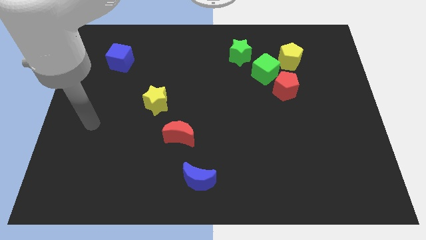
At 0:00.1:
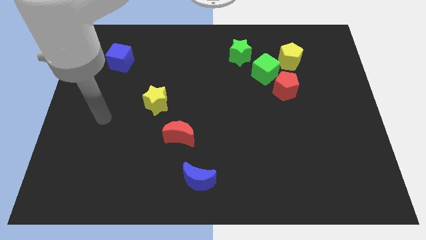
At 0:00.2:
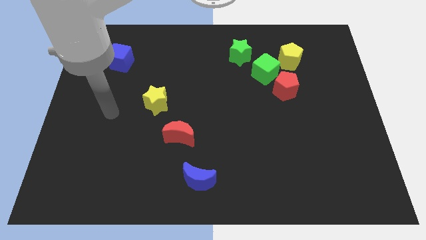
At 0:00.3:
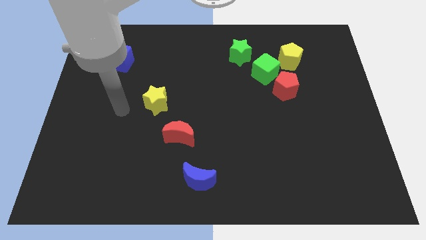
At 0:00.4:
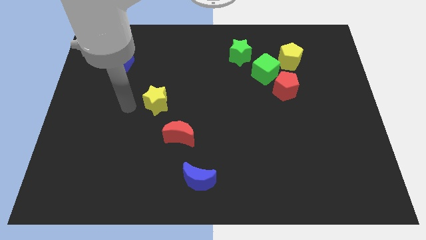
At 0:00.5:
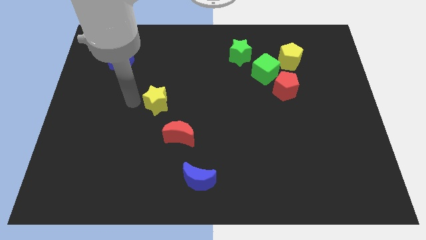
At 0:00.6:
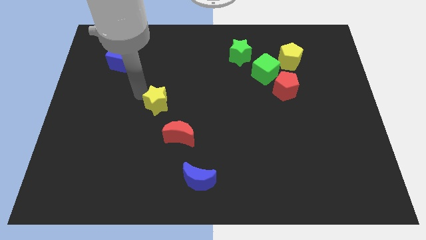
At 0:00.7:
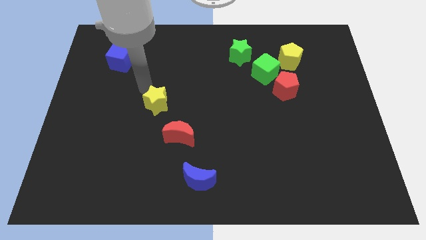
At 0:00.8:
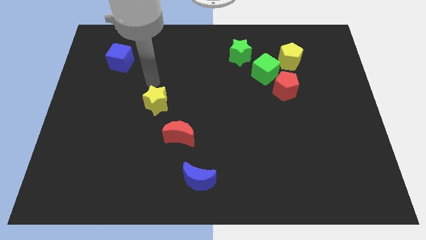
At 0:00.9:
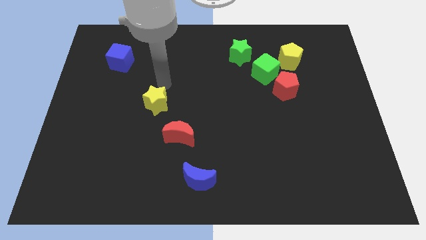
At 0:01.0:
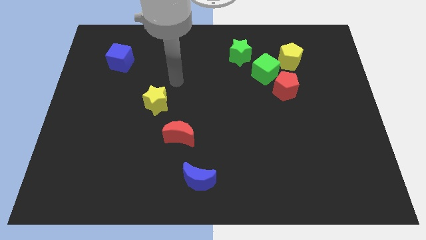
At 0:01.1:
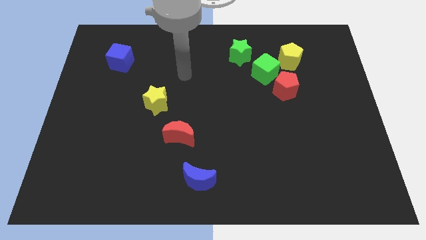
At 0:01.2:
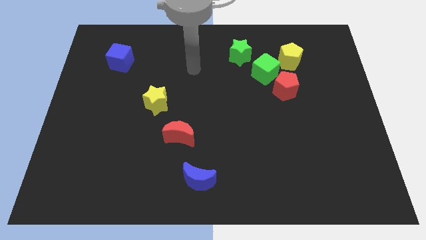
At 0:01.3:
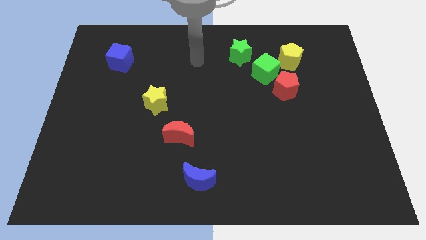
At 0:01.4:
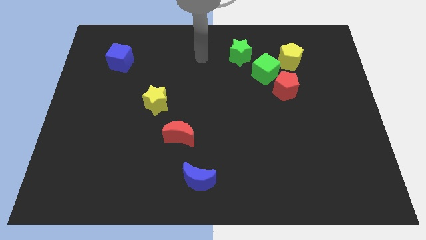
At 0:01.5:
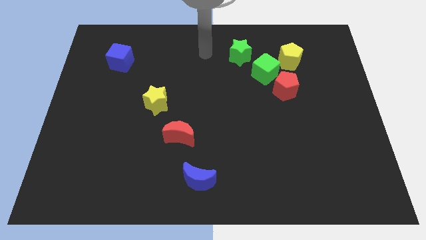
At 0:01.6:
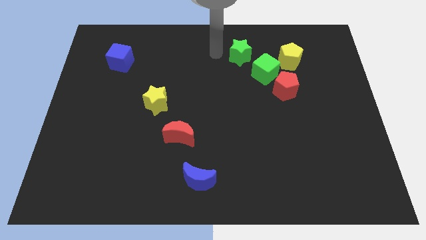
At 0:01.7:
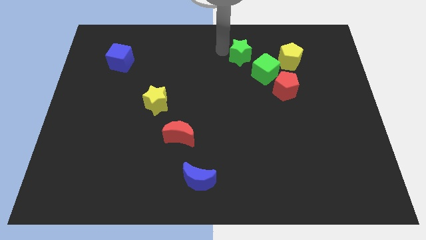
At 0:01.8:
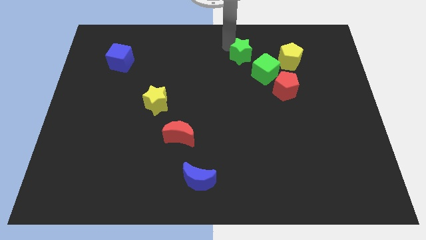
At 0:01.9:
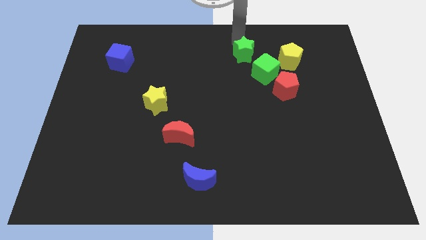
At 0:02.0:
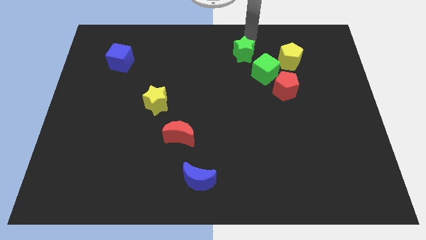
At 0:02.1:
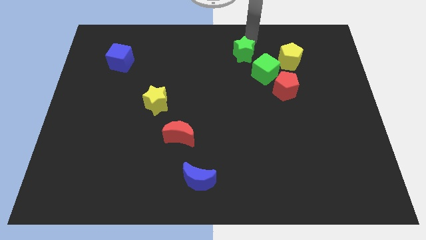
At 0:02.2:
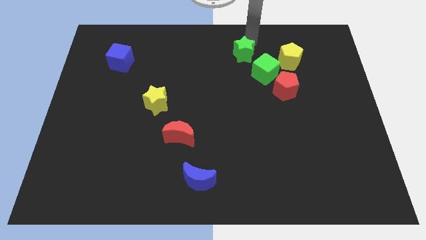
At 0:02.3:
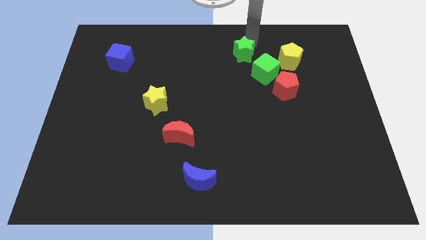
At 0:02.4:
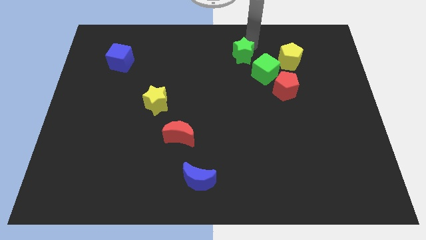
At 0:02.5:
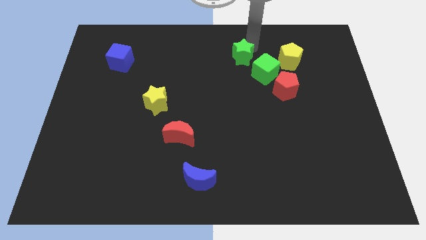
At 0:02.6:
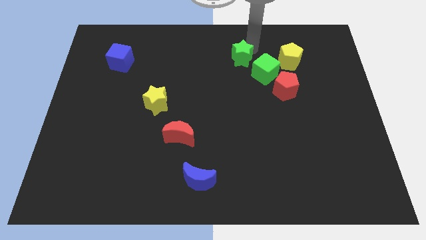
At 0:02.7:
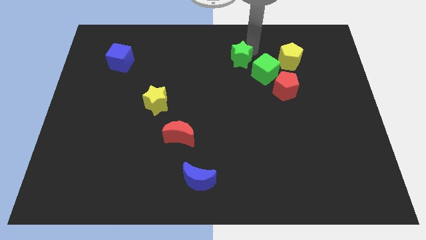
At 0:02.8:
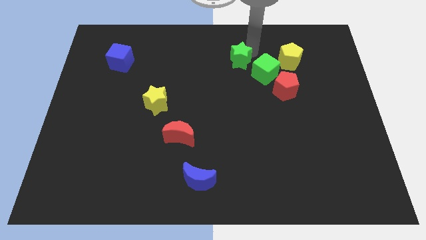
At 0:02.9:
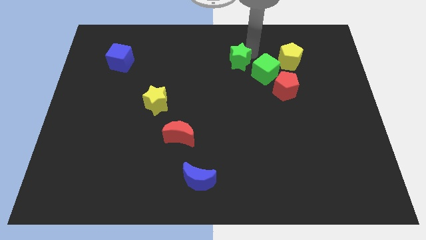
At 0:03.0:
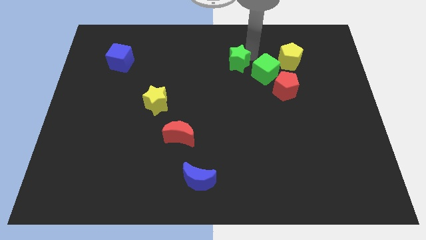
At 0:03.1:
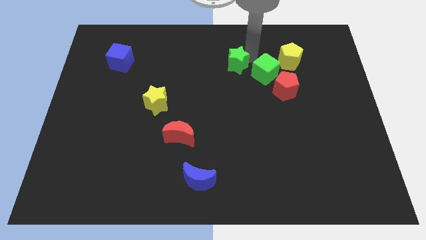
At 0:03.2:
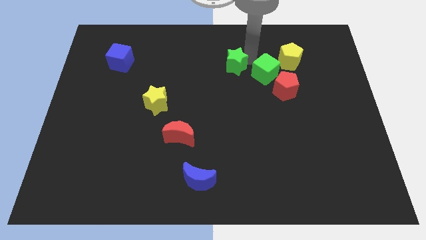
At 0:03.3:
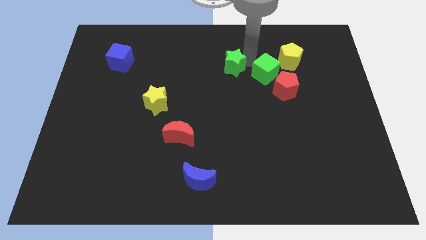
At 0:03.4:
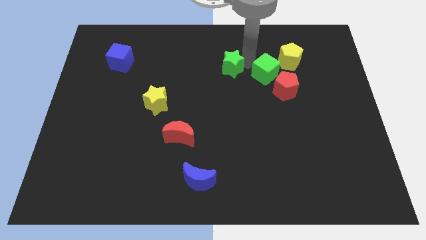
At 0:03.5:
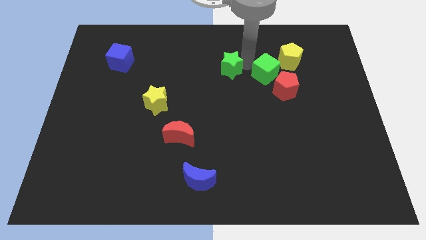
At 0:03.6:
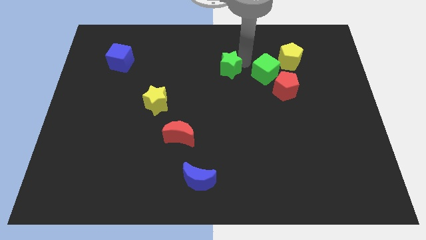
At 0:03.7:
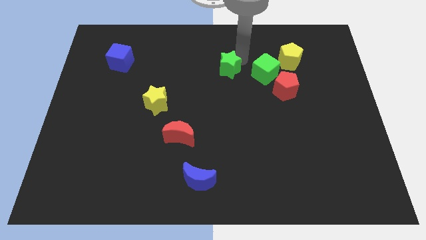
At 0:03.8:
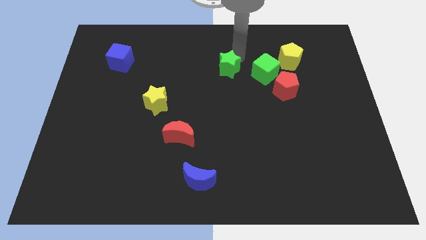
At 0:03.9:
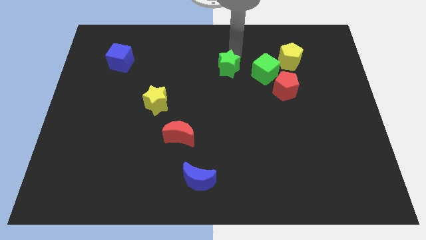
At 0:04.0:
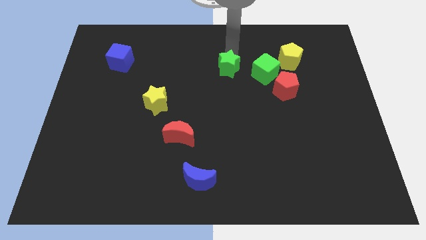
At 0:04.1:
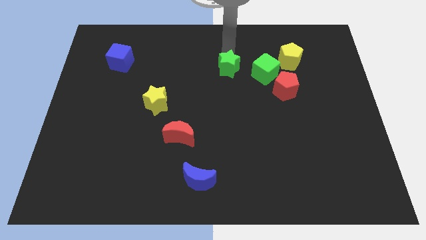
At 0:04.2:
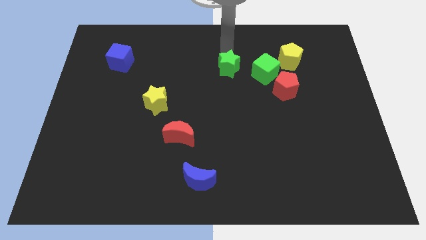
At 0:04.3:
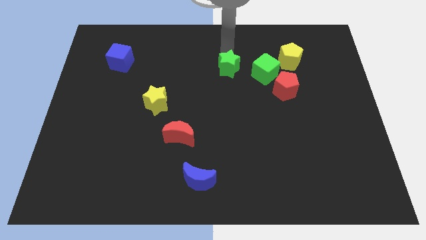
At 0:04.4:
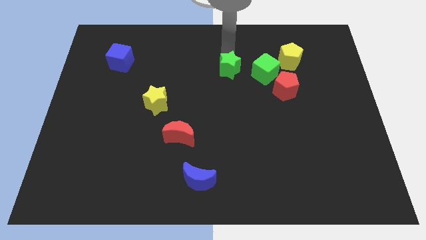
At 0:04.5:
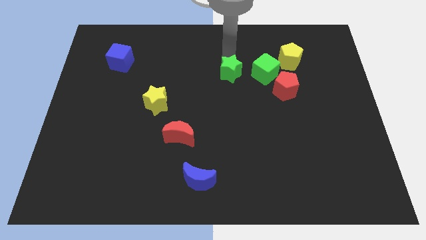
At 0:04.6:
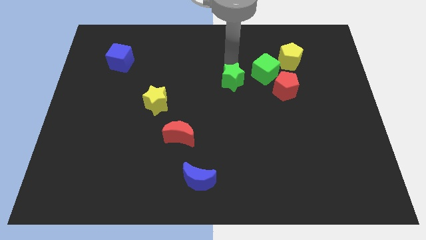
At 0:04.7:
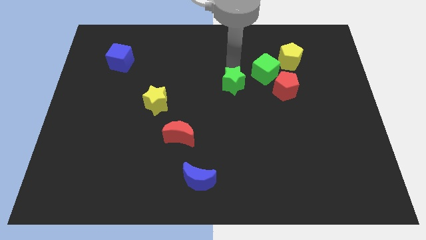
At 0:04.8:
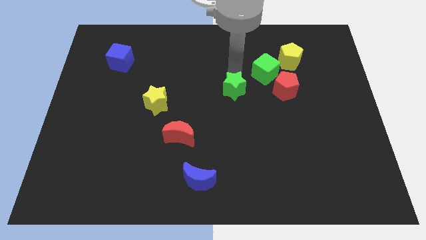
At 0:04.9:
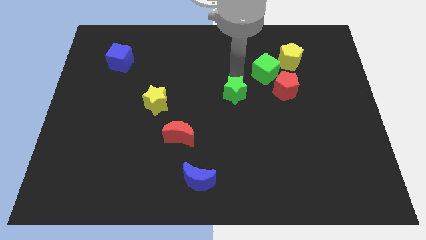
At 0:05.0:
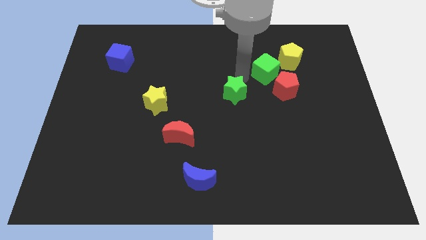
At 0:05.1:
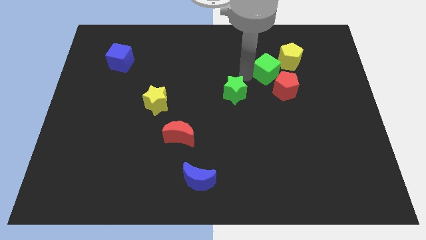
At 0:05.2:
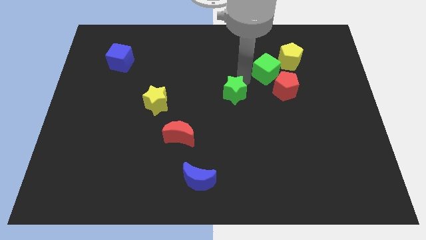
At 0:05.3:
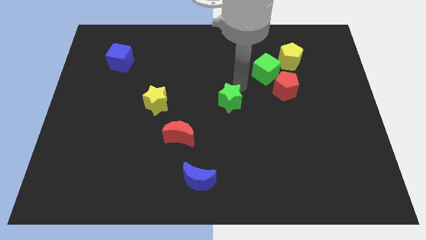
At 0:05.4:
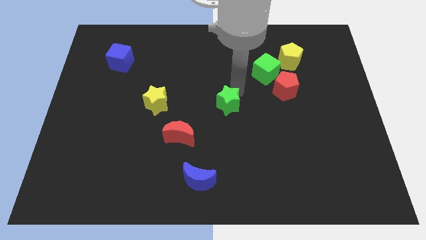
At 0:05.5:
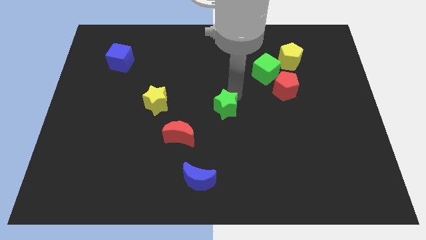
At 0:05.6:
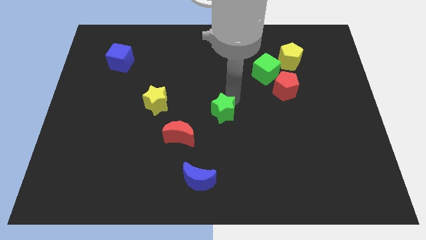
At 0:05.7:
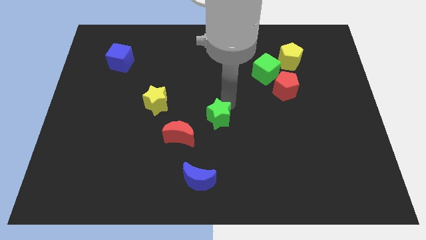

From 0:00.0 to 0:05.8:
push the green star to the right of the red moon

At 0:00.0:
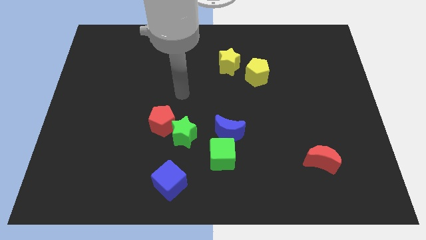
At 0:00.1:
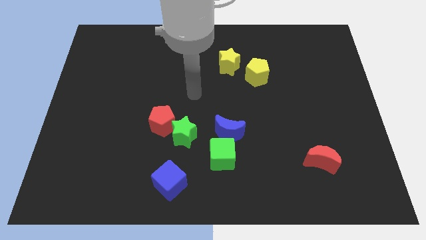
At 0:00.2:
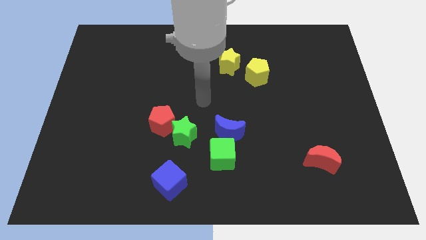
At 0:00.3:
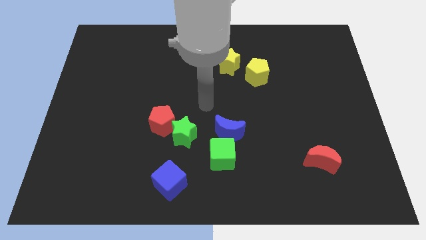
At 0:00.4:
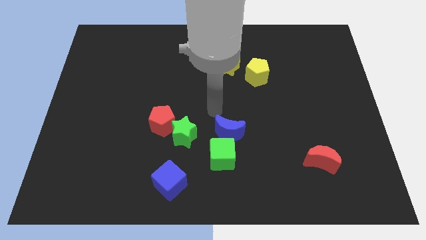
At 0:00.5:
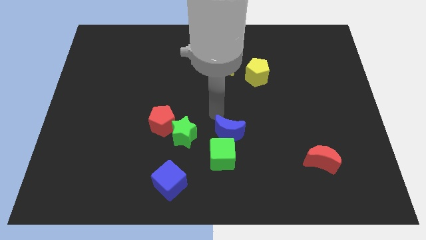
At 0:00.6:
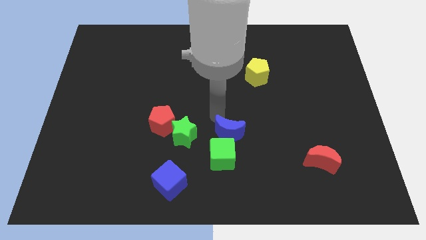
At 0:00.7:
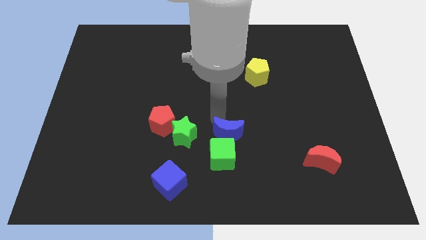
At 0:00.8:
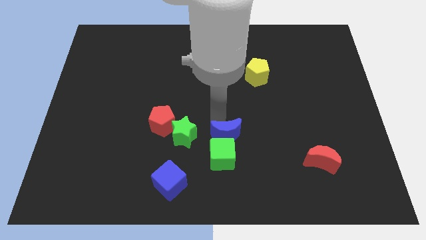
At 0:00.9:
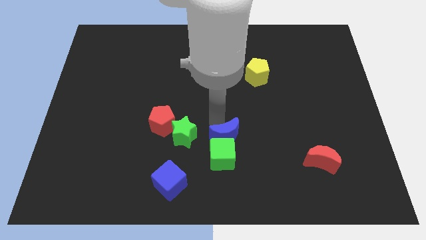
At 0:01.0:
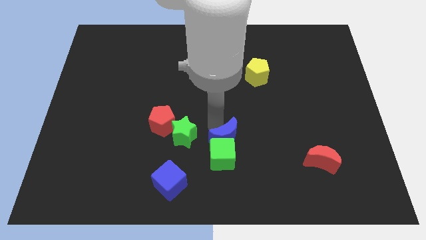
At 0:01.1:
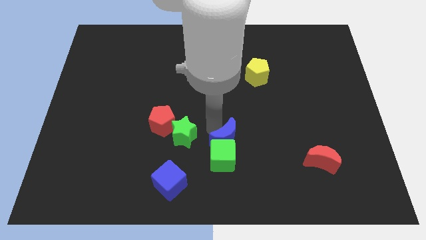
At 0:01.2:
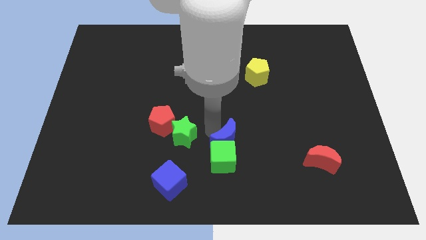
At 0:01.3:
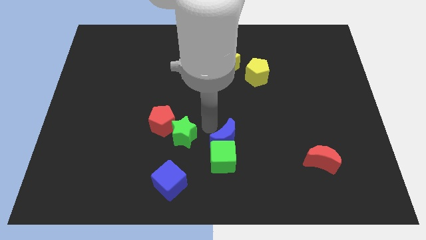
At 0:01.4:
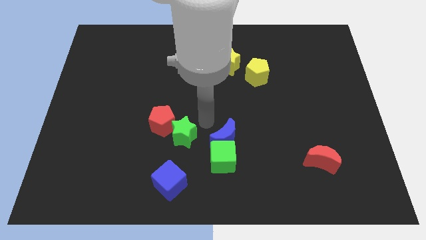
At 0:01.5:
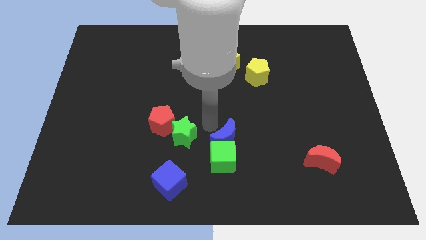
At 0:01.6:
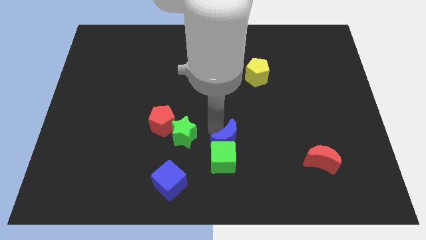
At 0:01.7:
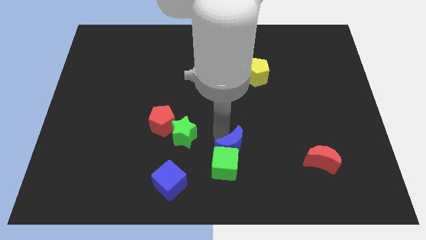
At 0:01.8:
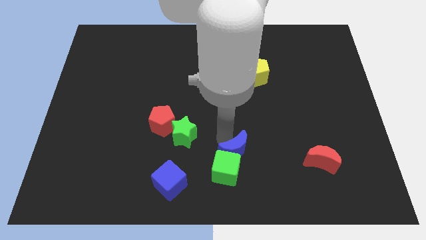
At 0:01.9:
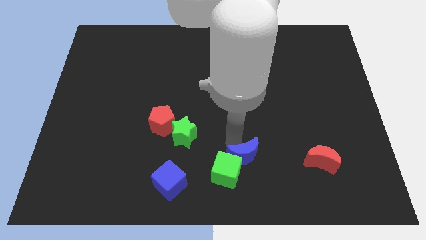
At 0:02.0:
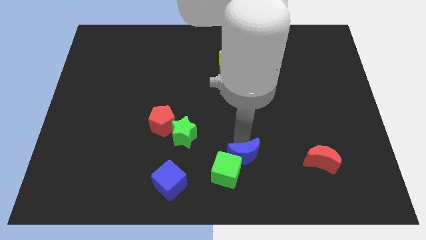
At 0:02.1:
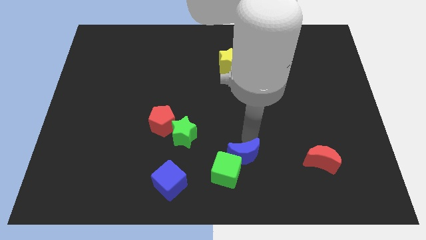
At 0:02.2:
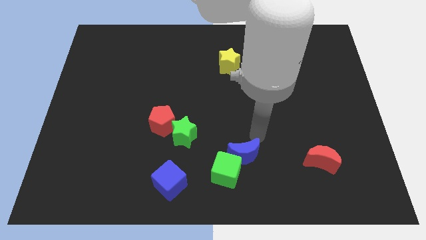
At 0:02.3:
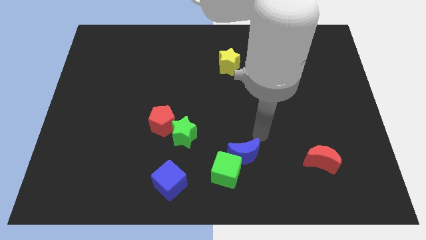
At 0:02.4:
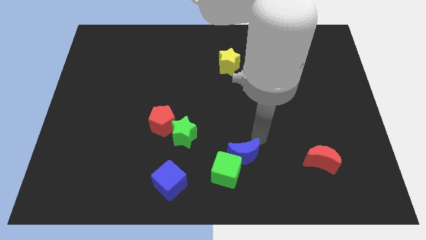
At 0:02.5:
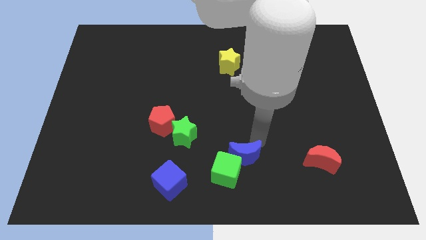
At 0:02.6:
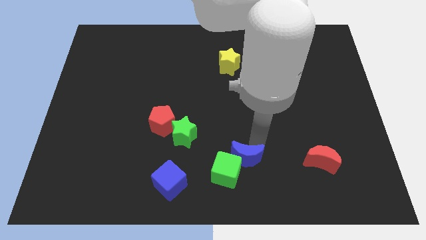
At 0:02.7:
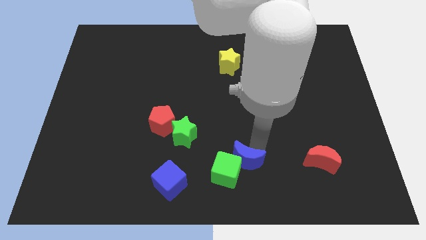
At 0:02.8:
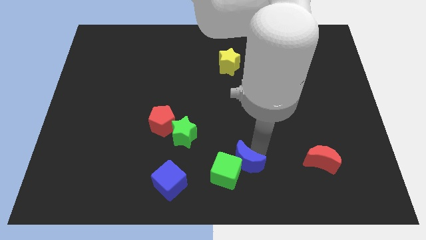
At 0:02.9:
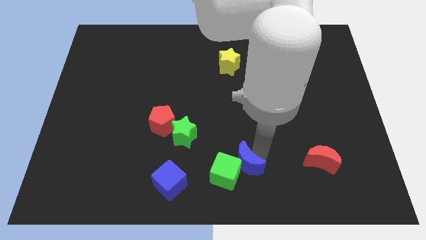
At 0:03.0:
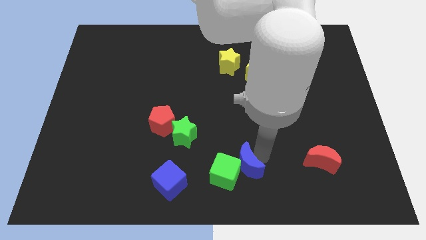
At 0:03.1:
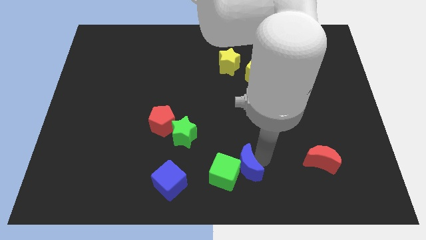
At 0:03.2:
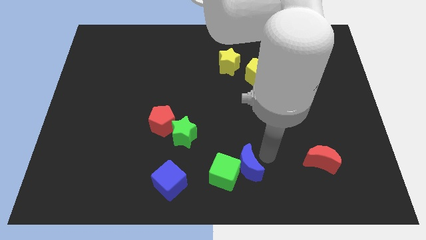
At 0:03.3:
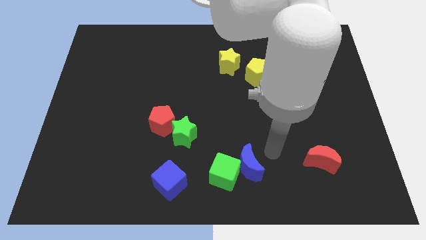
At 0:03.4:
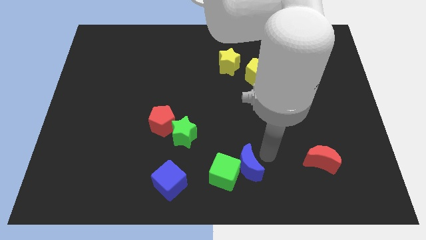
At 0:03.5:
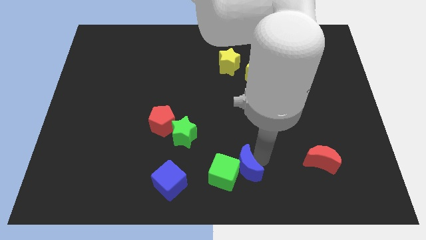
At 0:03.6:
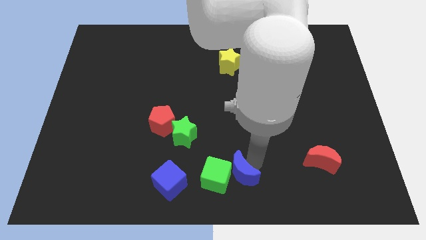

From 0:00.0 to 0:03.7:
slide the blue moon right of the blue cube
